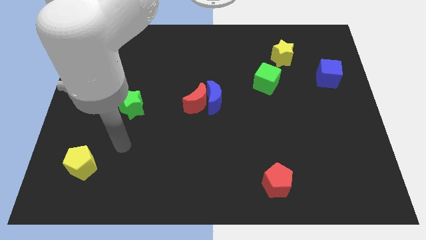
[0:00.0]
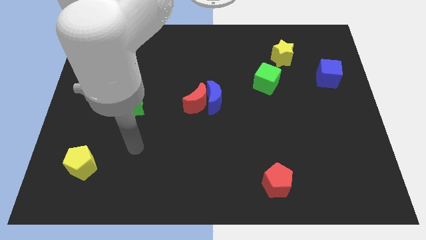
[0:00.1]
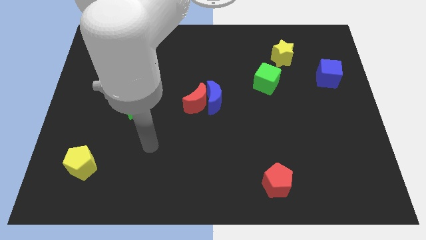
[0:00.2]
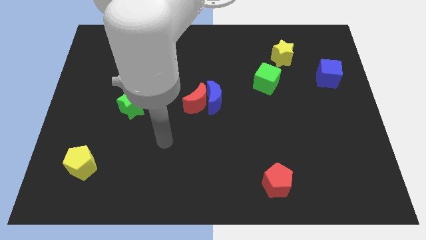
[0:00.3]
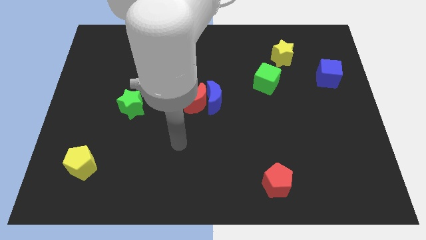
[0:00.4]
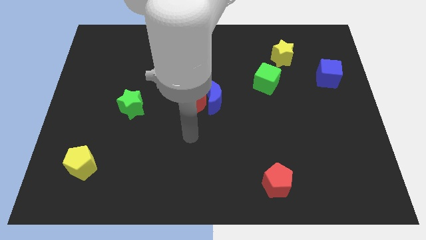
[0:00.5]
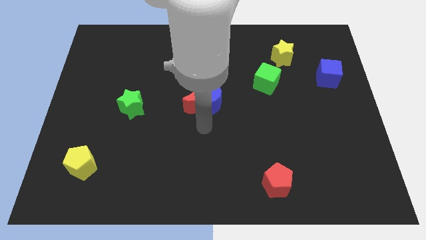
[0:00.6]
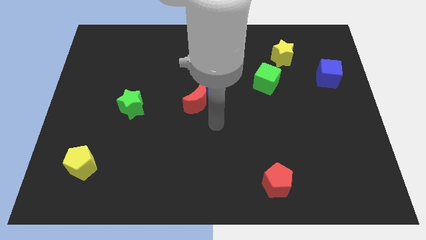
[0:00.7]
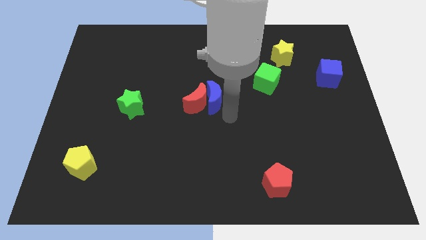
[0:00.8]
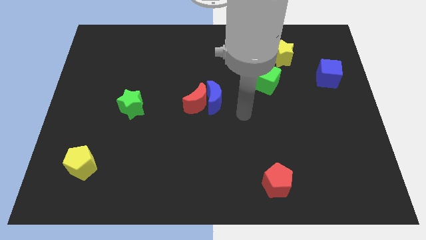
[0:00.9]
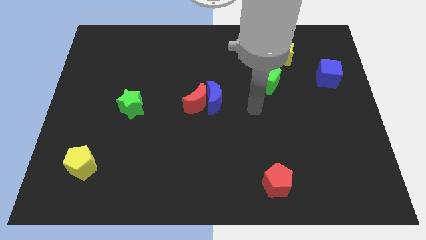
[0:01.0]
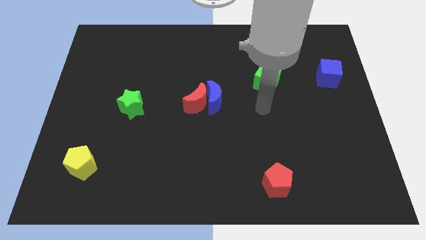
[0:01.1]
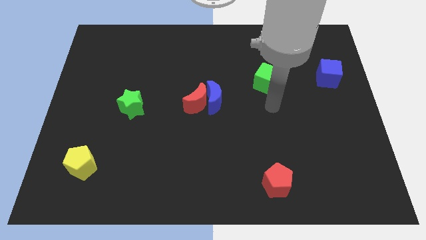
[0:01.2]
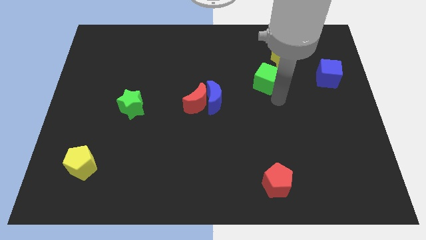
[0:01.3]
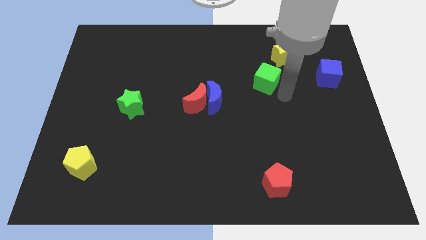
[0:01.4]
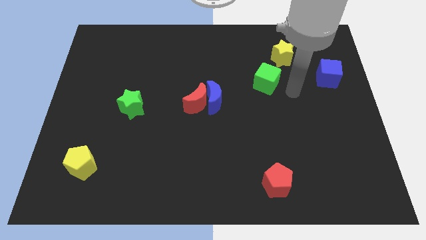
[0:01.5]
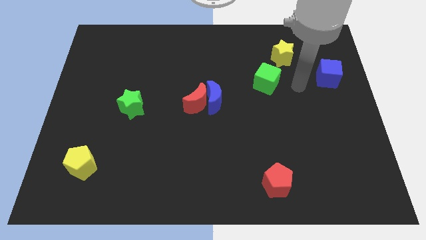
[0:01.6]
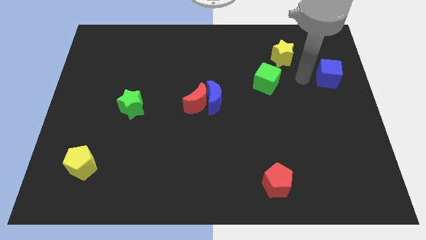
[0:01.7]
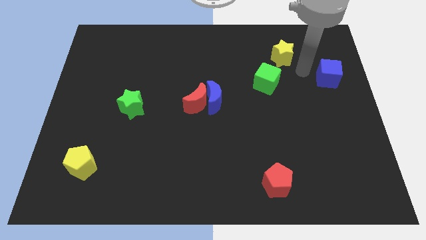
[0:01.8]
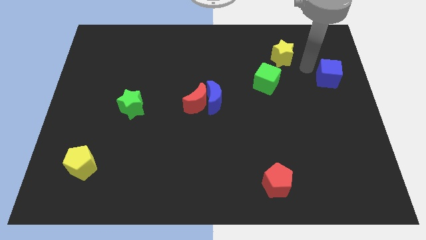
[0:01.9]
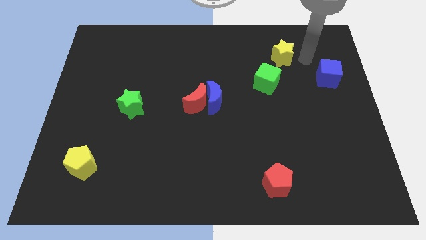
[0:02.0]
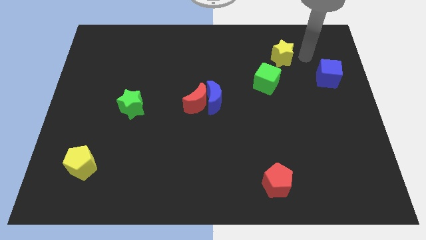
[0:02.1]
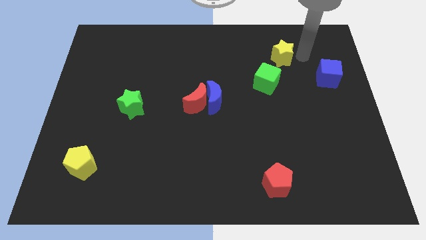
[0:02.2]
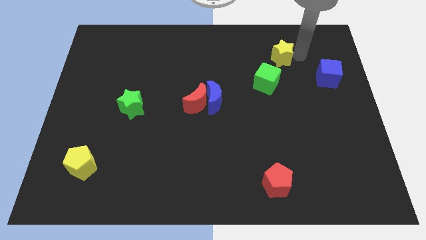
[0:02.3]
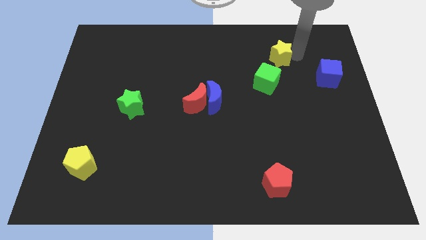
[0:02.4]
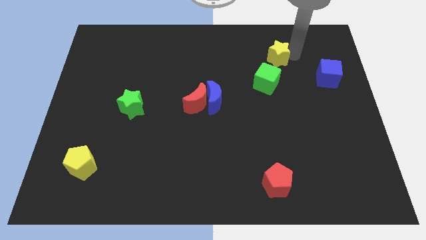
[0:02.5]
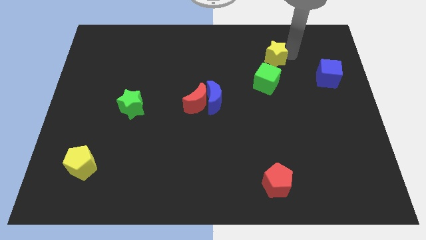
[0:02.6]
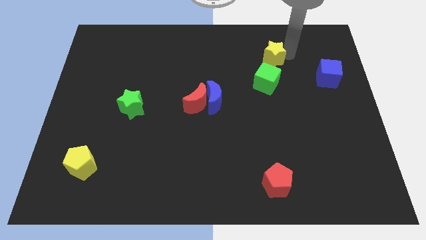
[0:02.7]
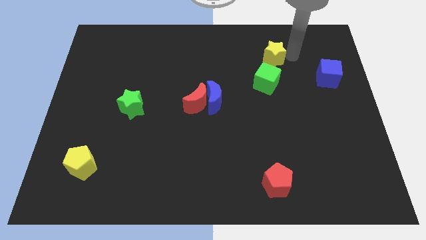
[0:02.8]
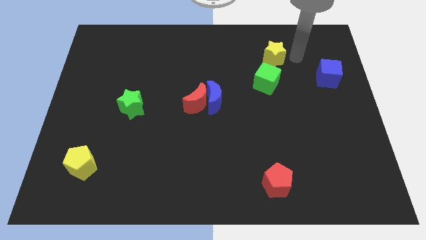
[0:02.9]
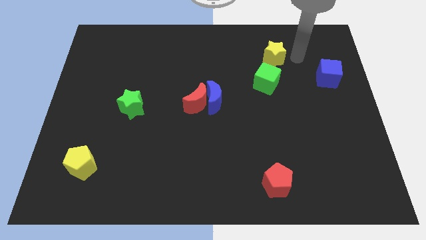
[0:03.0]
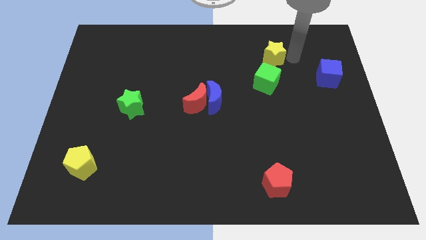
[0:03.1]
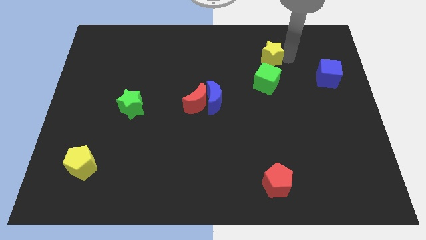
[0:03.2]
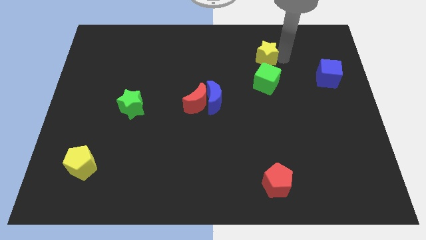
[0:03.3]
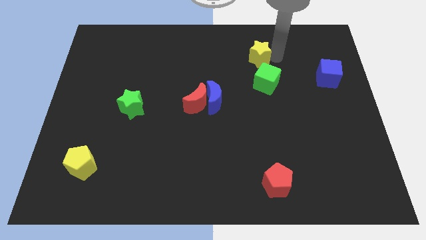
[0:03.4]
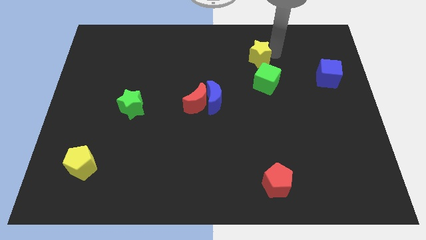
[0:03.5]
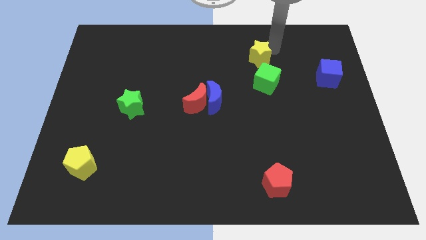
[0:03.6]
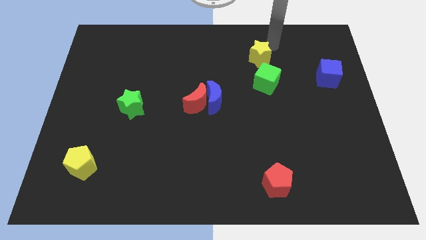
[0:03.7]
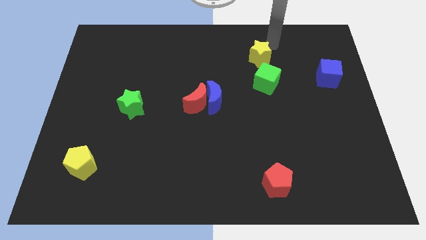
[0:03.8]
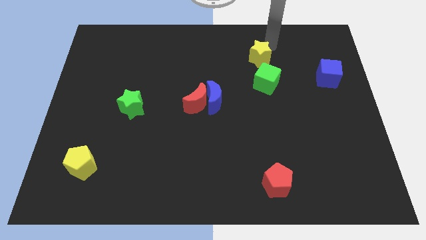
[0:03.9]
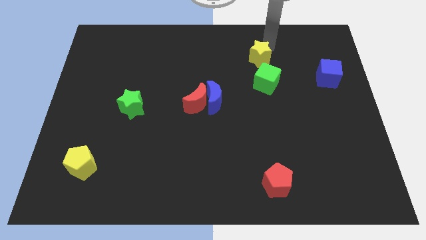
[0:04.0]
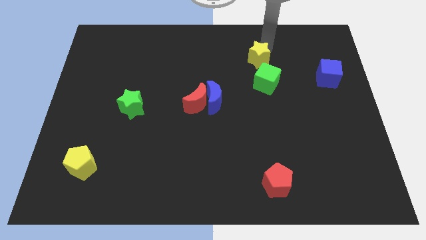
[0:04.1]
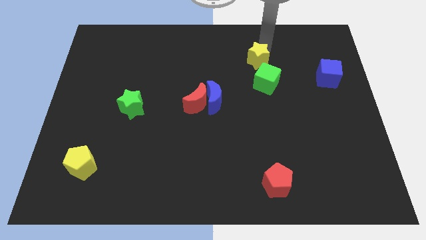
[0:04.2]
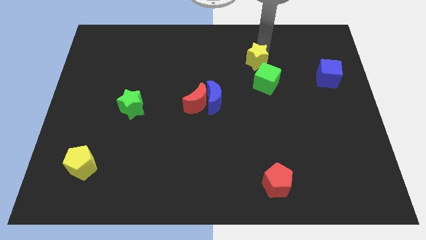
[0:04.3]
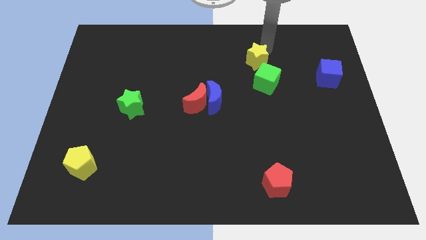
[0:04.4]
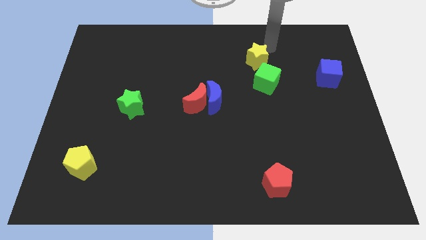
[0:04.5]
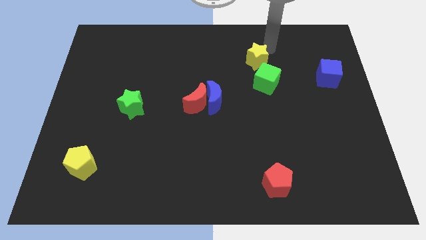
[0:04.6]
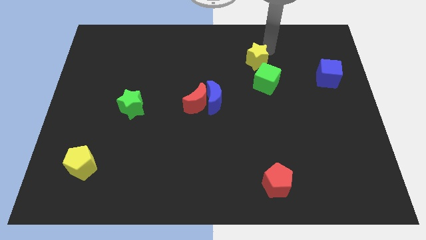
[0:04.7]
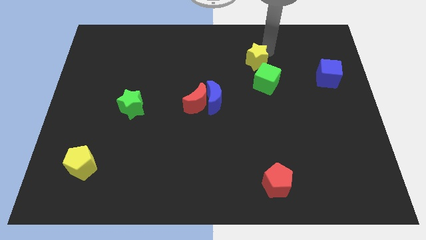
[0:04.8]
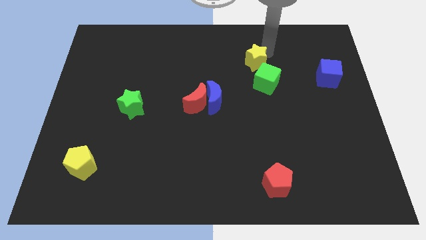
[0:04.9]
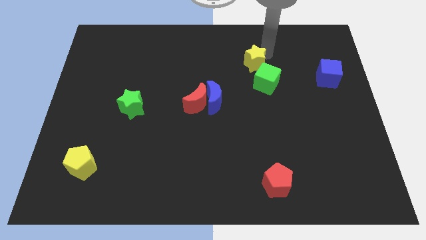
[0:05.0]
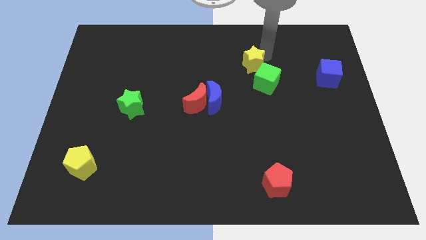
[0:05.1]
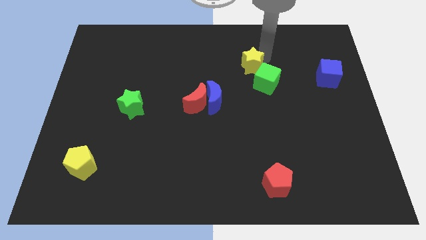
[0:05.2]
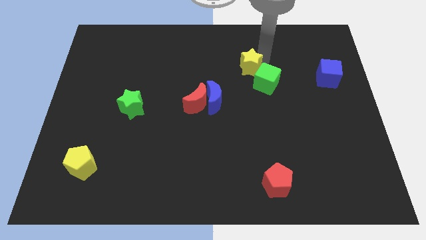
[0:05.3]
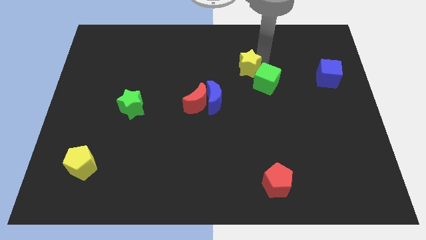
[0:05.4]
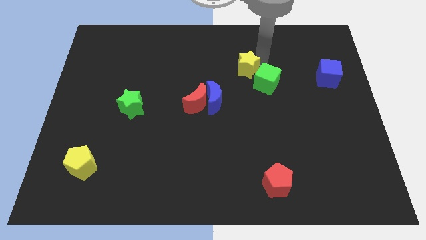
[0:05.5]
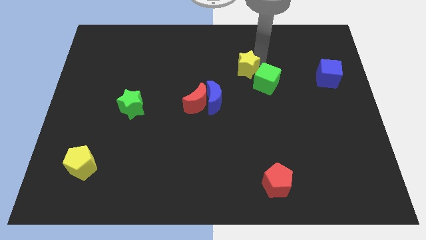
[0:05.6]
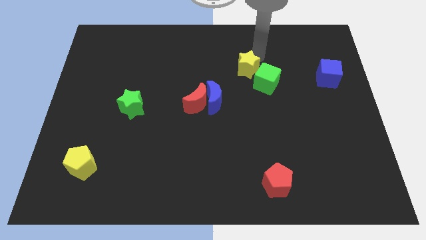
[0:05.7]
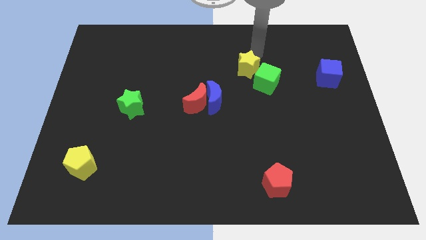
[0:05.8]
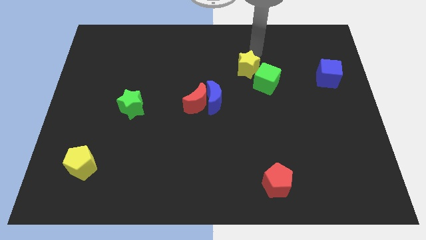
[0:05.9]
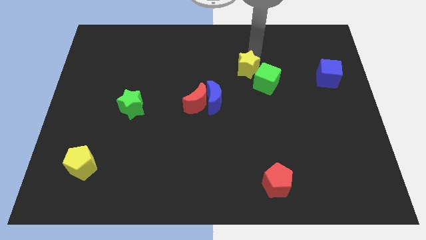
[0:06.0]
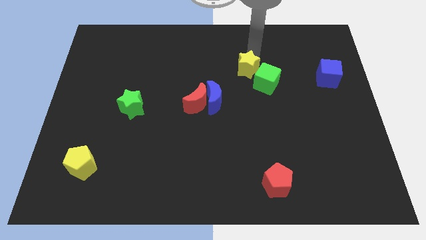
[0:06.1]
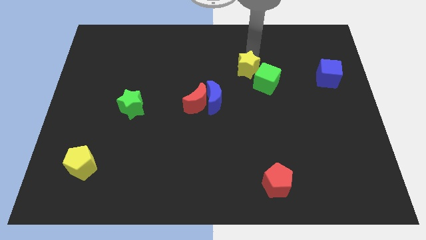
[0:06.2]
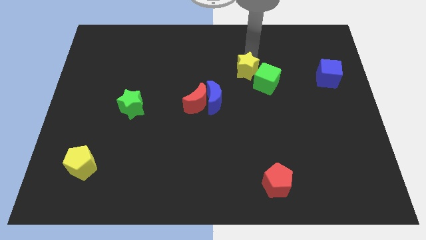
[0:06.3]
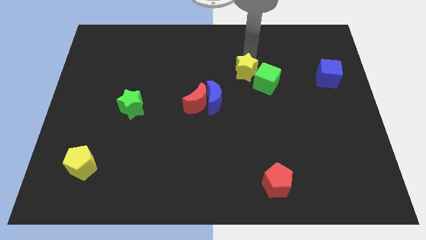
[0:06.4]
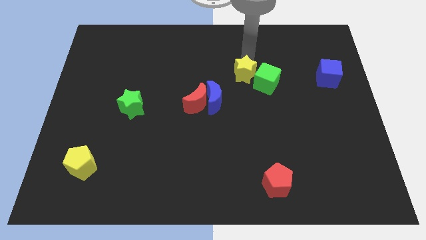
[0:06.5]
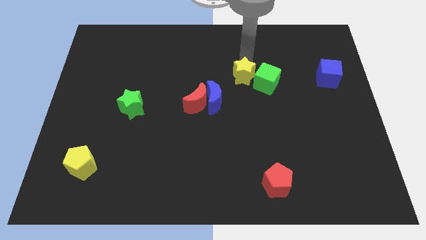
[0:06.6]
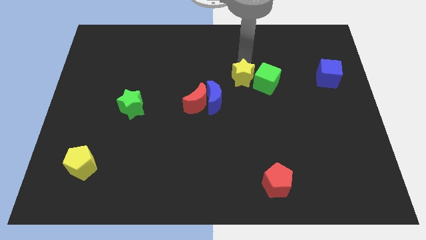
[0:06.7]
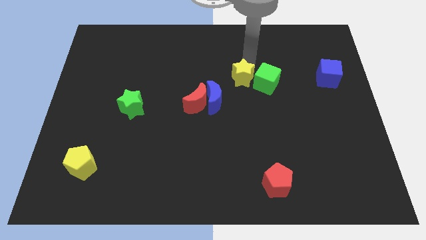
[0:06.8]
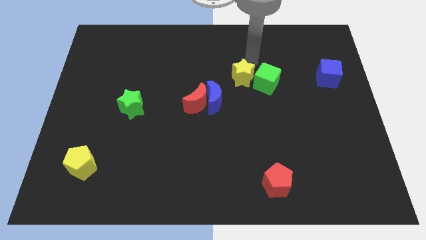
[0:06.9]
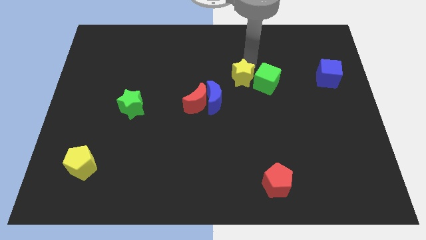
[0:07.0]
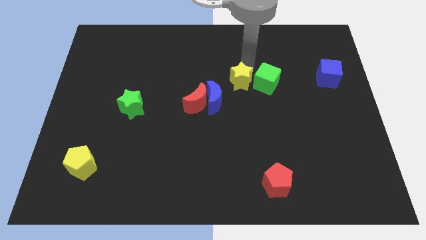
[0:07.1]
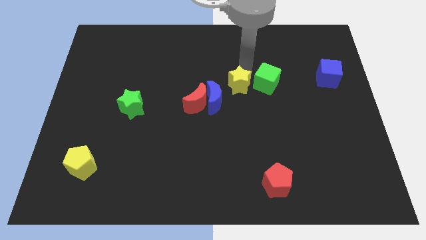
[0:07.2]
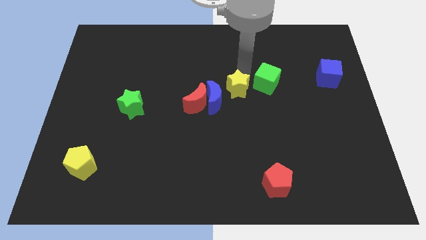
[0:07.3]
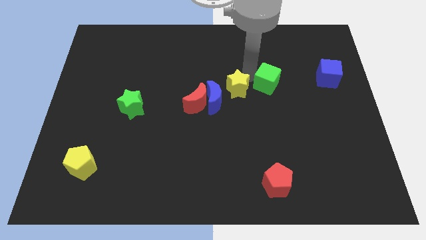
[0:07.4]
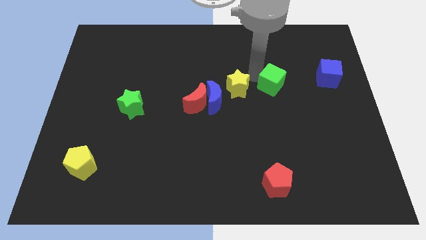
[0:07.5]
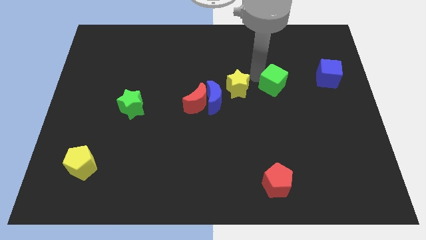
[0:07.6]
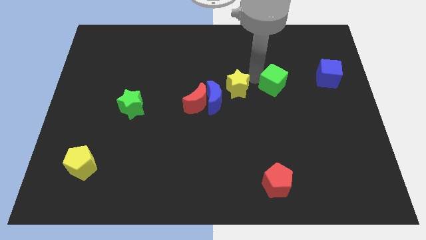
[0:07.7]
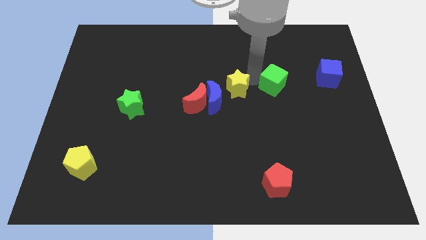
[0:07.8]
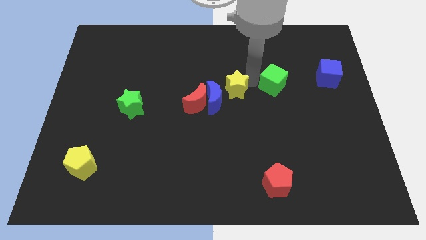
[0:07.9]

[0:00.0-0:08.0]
push the yellow star next to the blue moon
